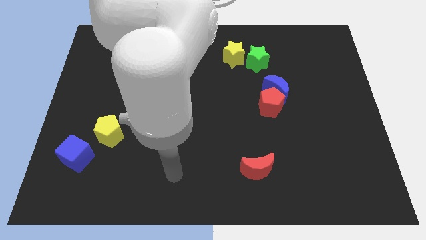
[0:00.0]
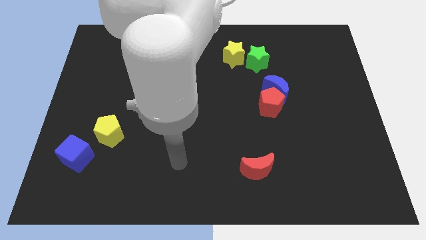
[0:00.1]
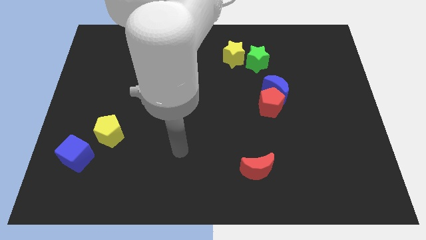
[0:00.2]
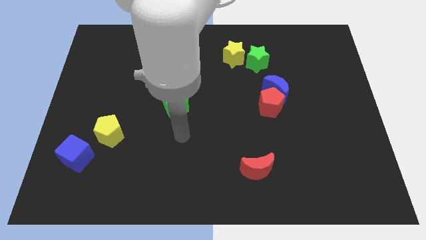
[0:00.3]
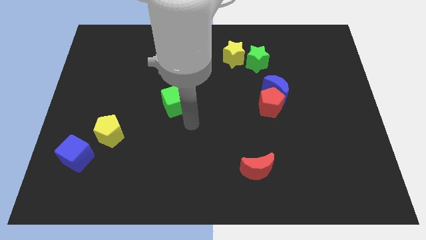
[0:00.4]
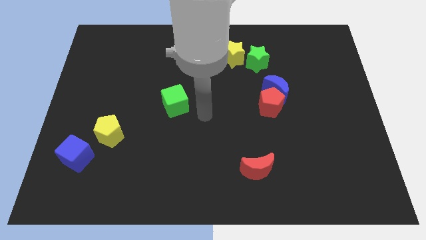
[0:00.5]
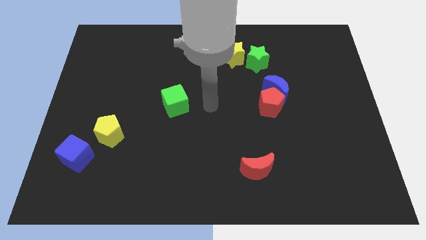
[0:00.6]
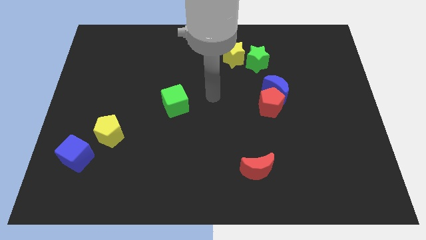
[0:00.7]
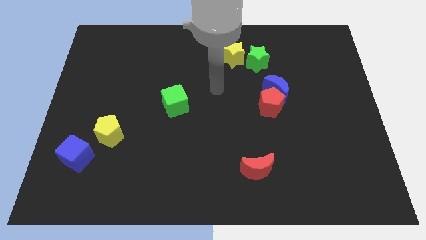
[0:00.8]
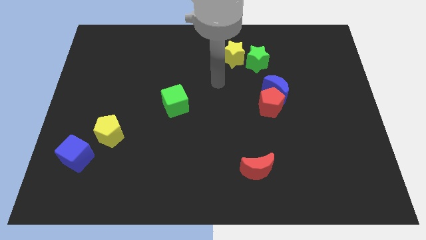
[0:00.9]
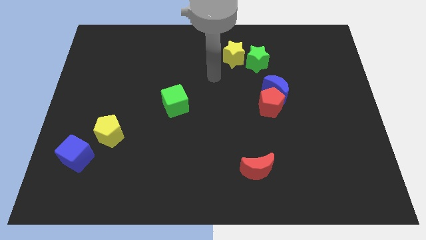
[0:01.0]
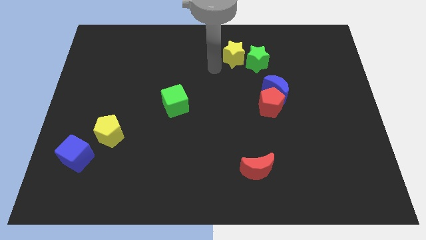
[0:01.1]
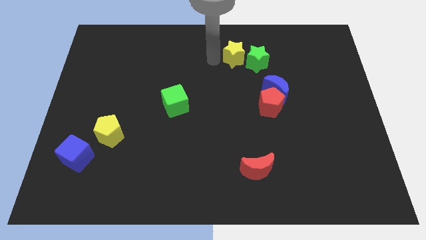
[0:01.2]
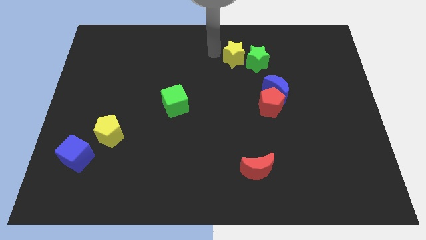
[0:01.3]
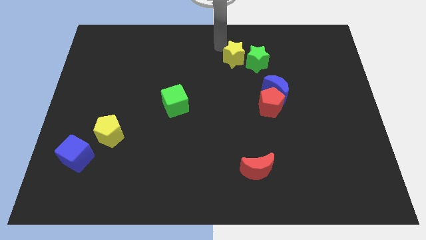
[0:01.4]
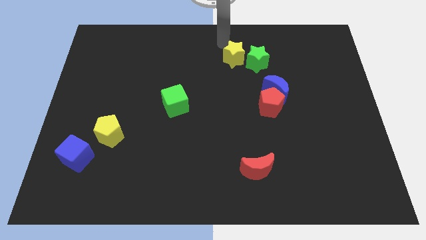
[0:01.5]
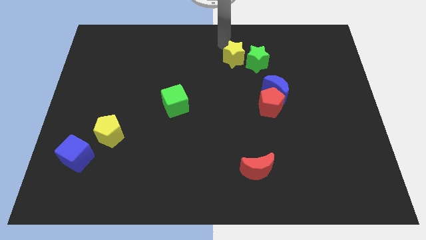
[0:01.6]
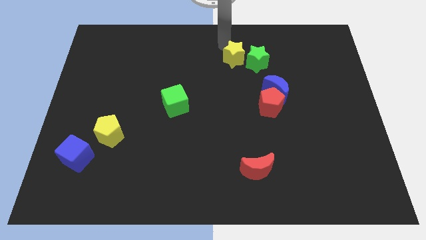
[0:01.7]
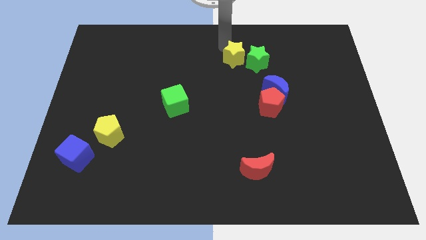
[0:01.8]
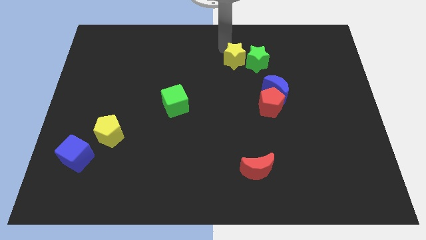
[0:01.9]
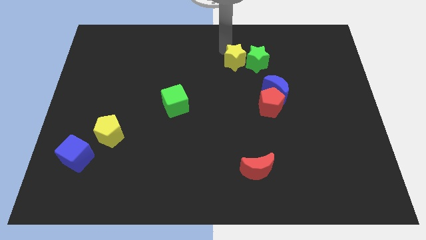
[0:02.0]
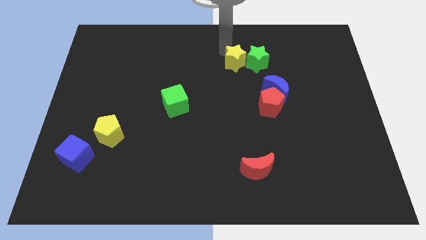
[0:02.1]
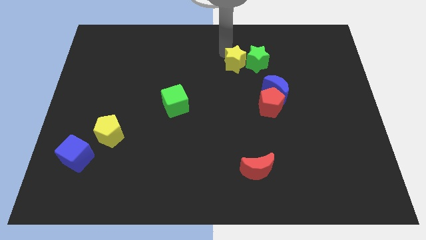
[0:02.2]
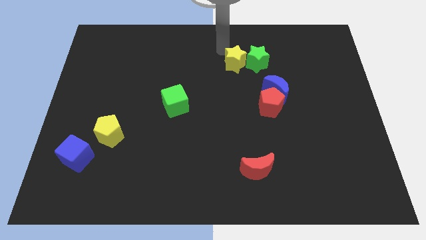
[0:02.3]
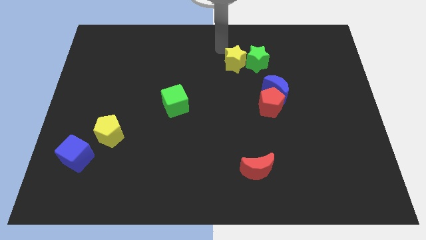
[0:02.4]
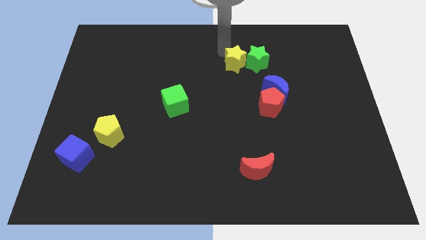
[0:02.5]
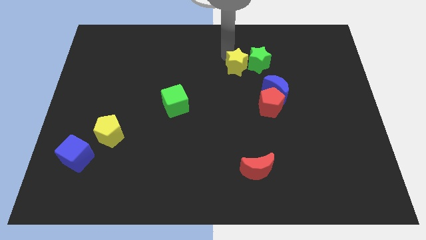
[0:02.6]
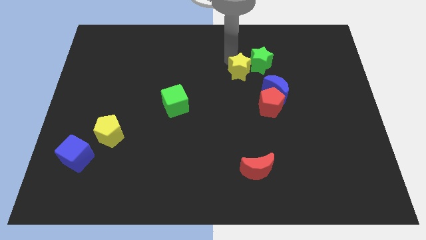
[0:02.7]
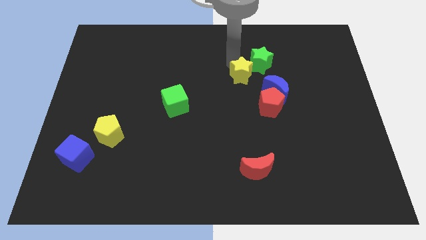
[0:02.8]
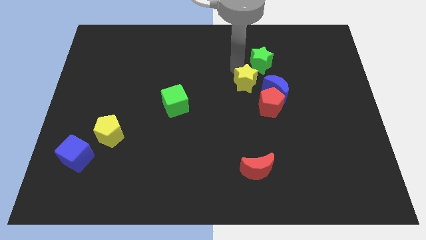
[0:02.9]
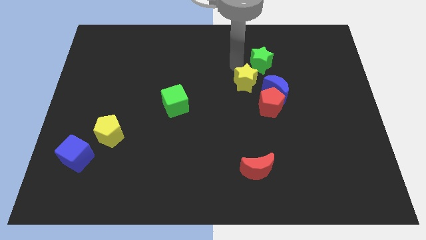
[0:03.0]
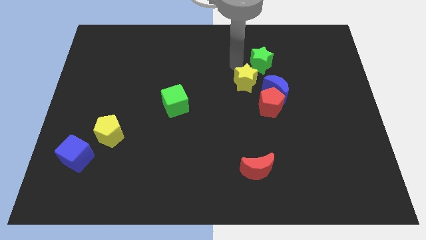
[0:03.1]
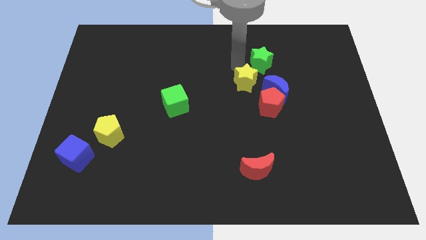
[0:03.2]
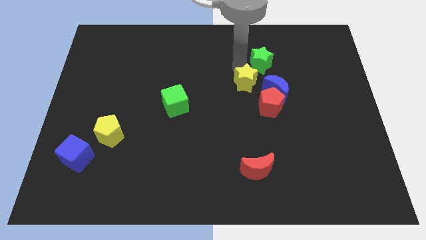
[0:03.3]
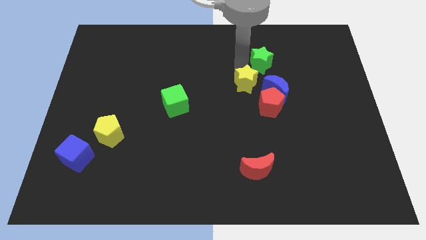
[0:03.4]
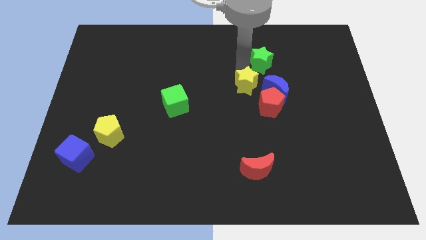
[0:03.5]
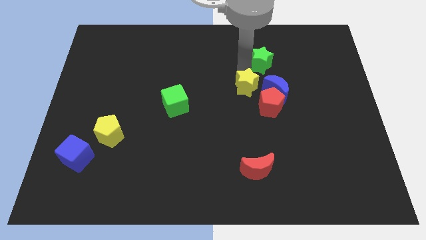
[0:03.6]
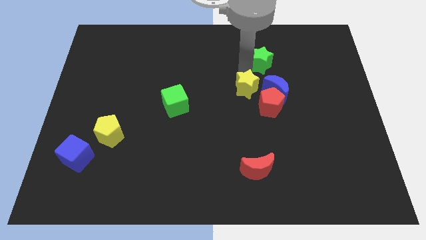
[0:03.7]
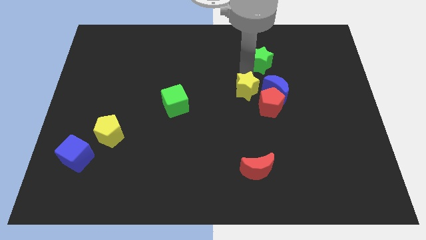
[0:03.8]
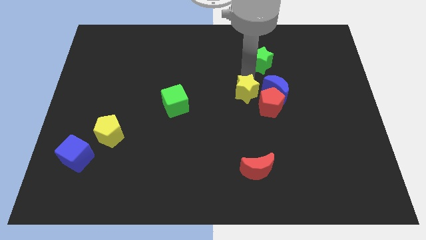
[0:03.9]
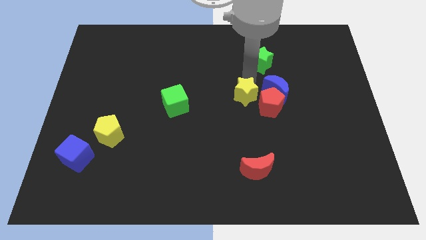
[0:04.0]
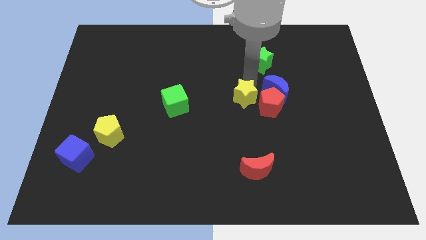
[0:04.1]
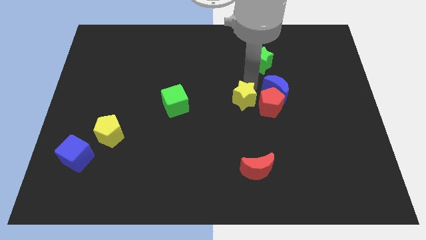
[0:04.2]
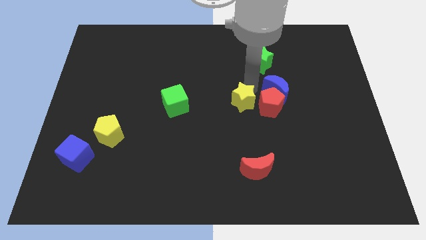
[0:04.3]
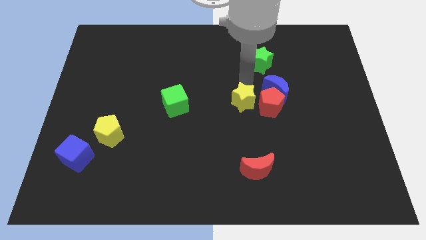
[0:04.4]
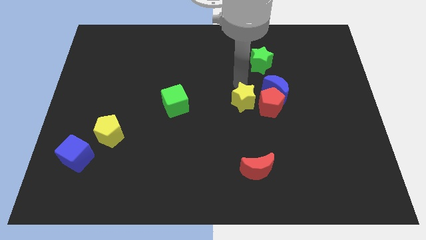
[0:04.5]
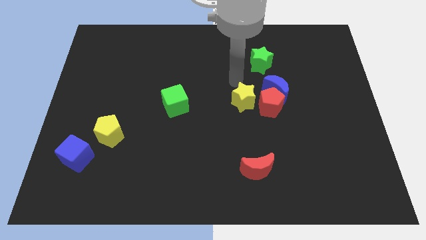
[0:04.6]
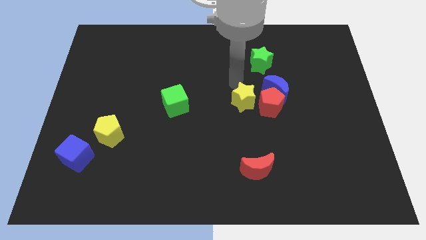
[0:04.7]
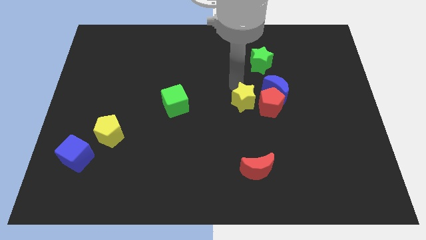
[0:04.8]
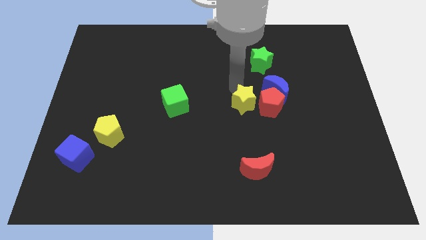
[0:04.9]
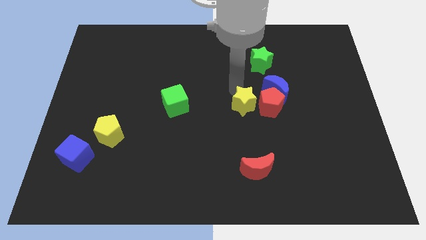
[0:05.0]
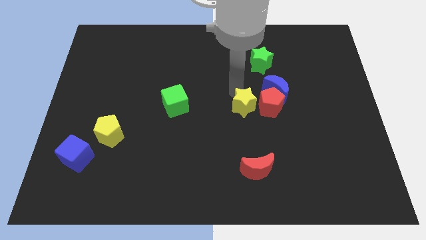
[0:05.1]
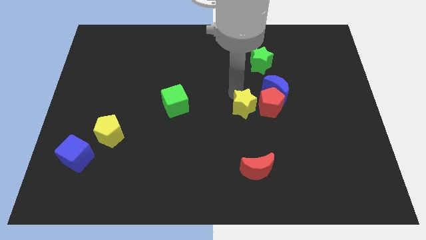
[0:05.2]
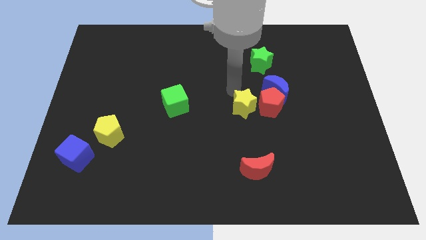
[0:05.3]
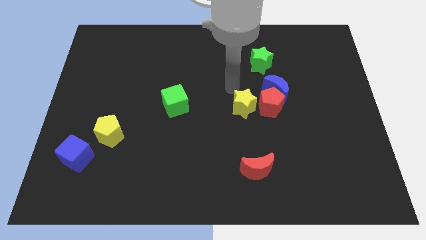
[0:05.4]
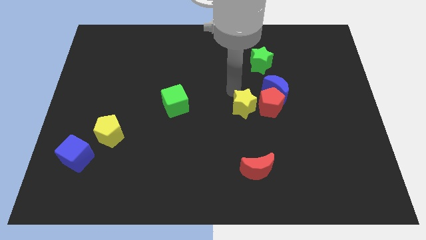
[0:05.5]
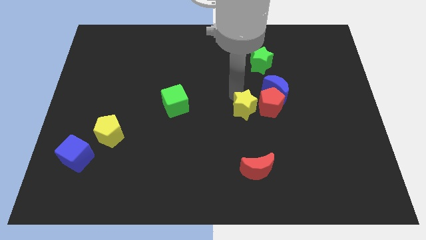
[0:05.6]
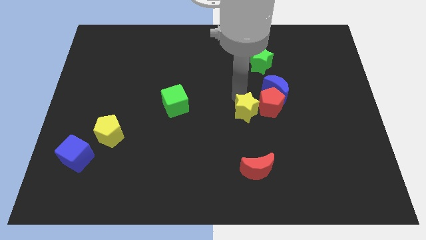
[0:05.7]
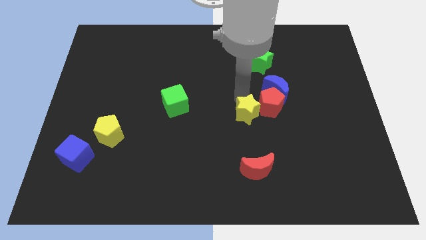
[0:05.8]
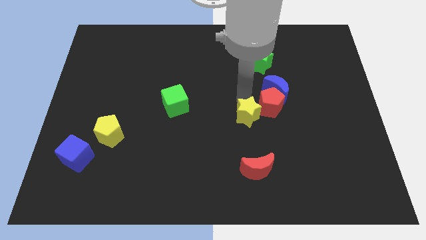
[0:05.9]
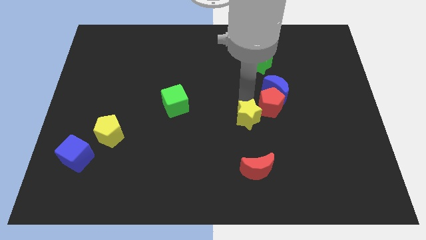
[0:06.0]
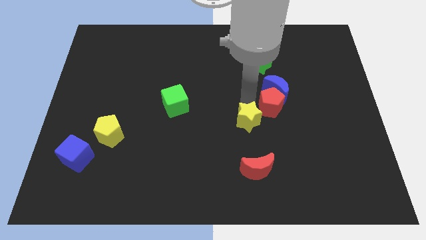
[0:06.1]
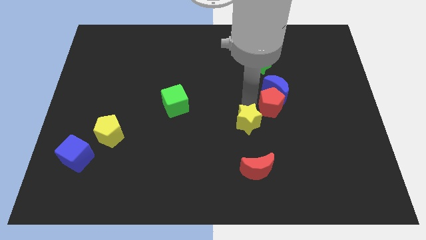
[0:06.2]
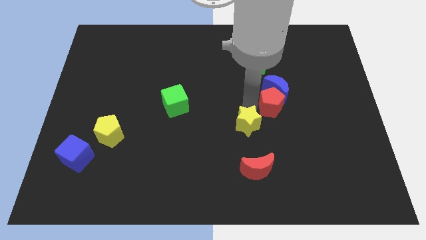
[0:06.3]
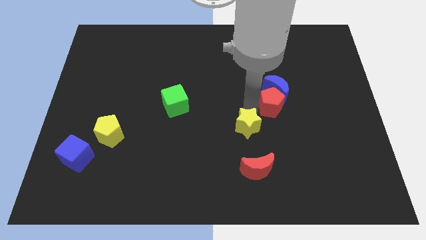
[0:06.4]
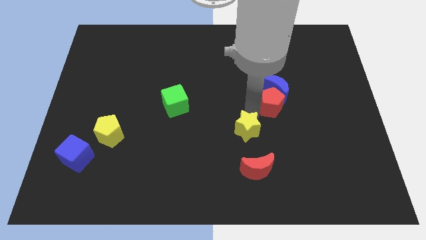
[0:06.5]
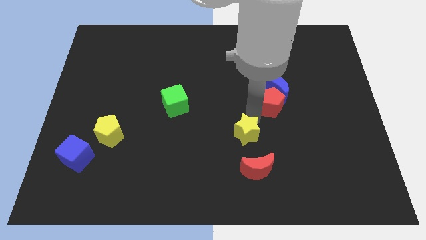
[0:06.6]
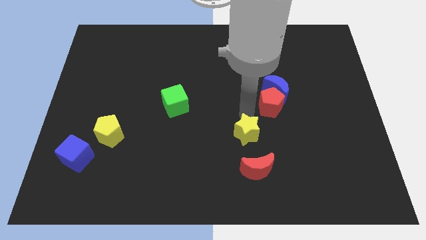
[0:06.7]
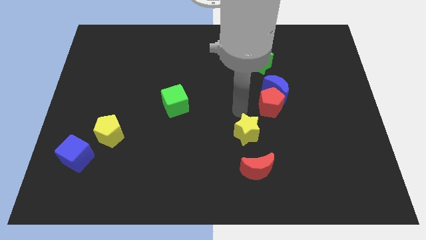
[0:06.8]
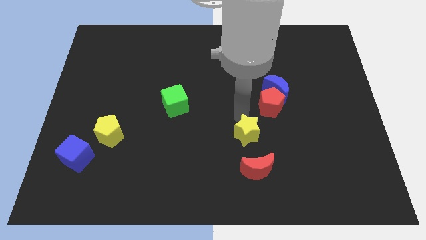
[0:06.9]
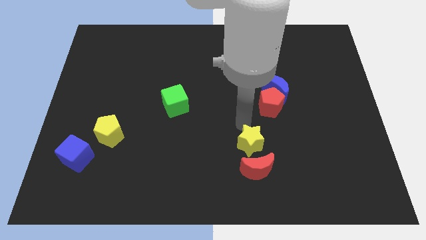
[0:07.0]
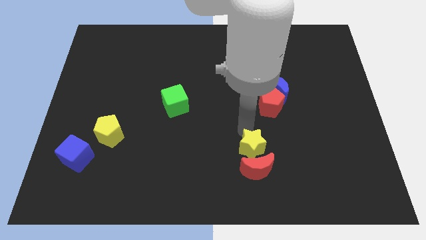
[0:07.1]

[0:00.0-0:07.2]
slide the yellow star to the red moon
